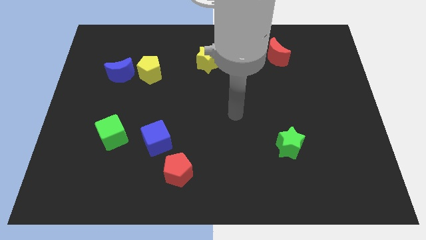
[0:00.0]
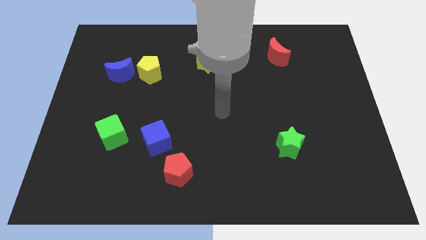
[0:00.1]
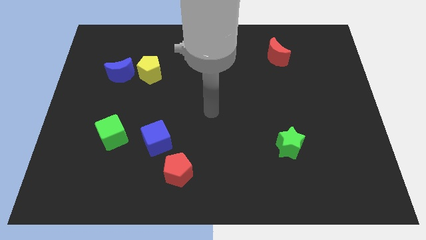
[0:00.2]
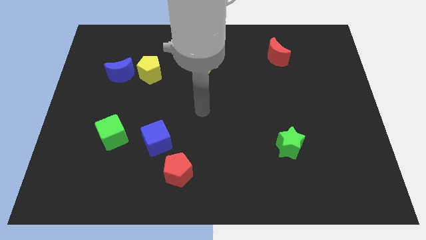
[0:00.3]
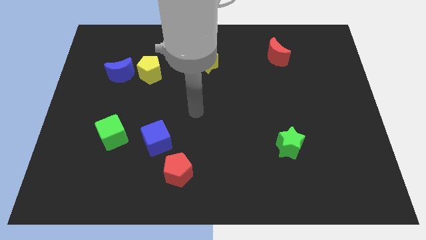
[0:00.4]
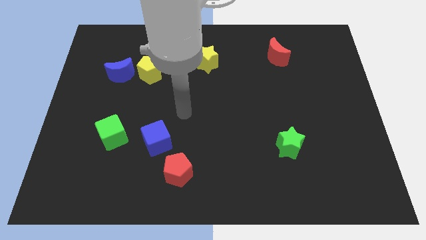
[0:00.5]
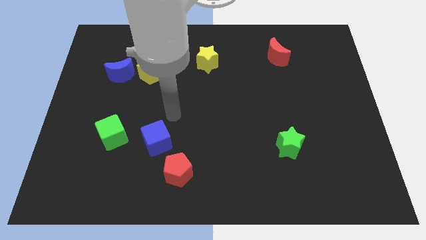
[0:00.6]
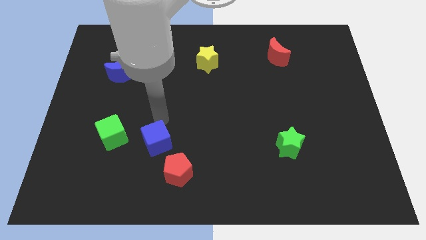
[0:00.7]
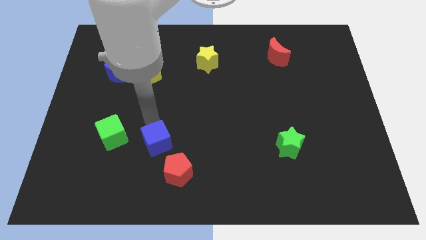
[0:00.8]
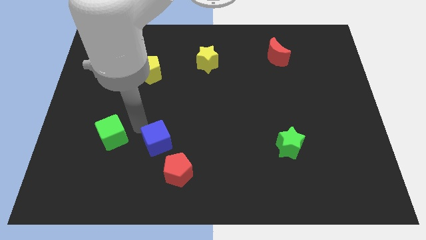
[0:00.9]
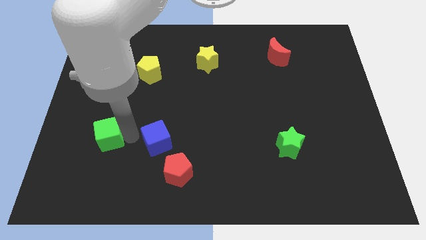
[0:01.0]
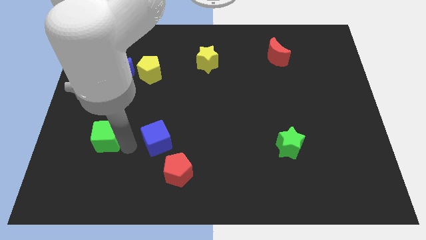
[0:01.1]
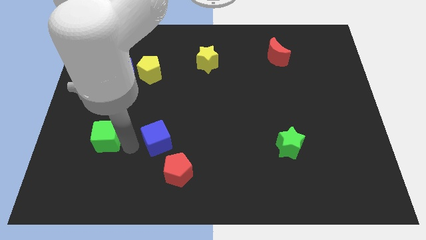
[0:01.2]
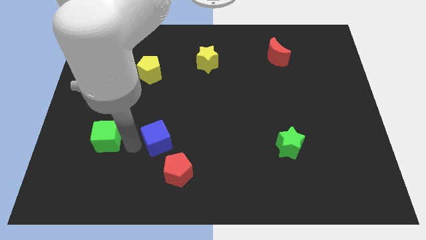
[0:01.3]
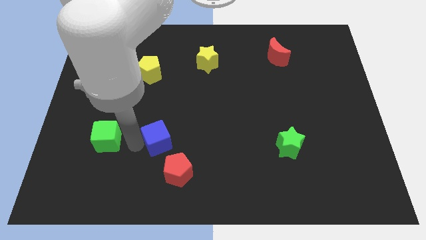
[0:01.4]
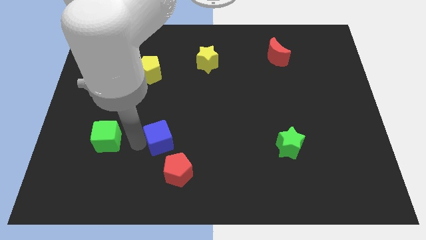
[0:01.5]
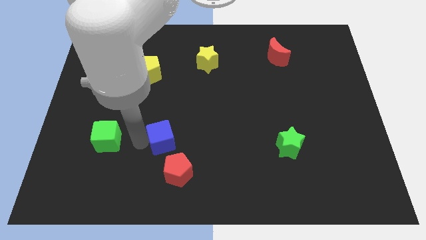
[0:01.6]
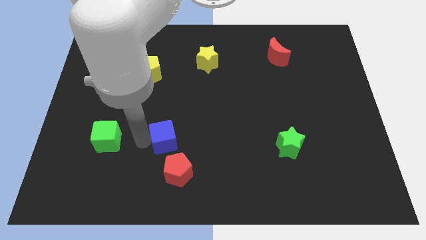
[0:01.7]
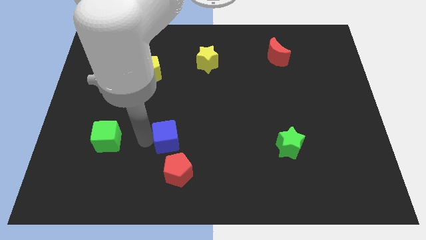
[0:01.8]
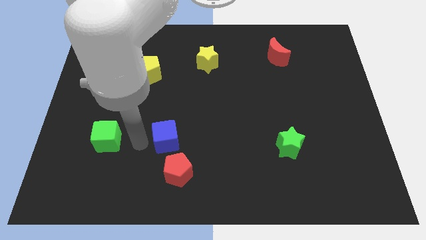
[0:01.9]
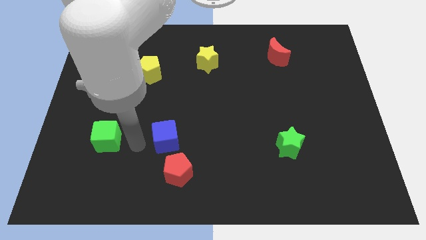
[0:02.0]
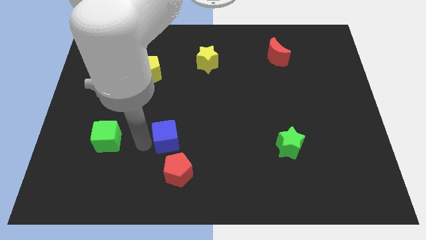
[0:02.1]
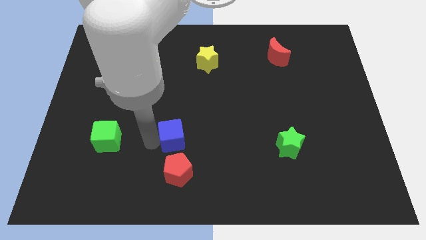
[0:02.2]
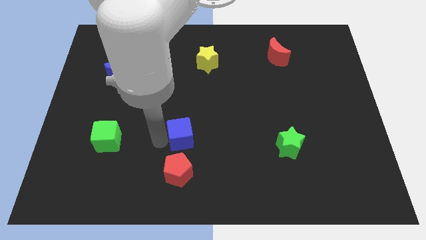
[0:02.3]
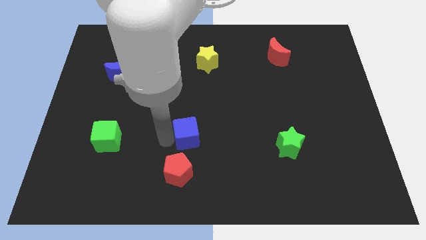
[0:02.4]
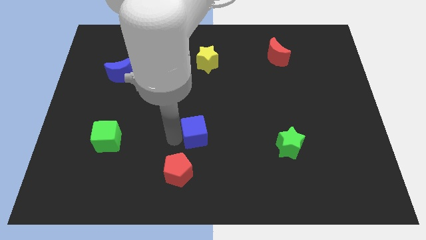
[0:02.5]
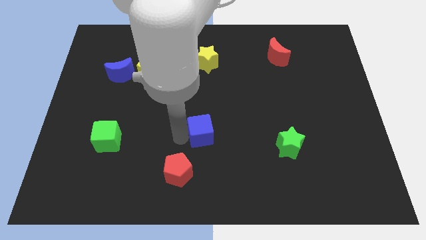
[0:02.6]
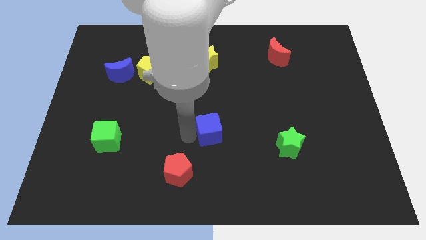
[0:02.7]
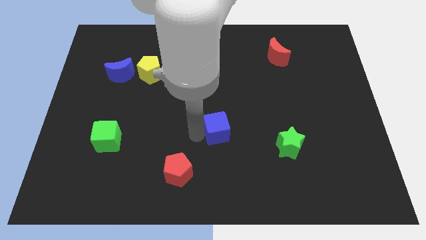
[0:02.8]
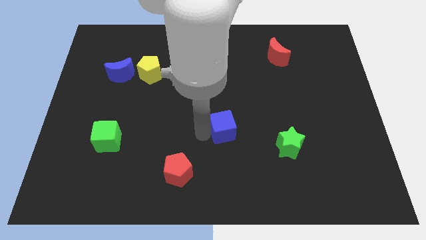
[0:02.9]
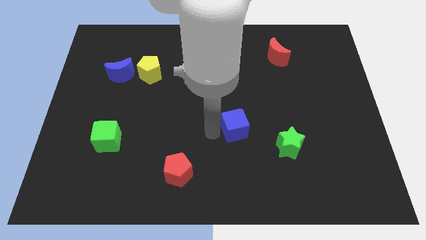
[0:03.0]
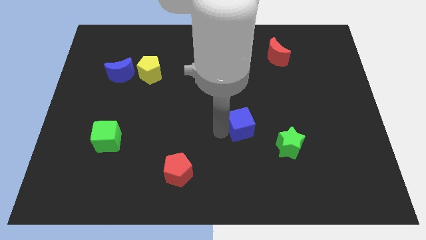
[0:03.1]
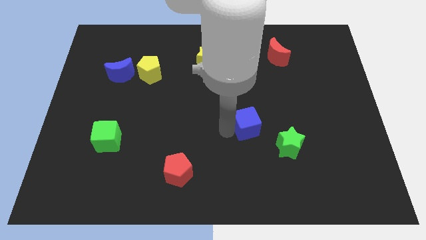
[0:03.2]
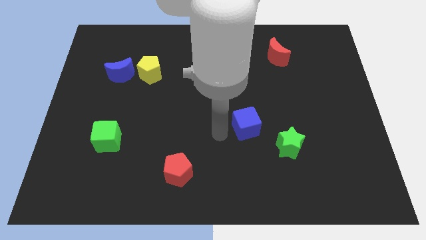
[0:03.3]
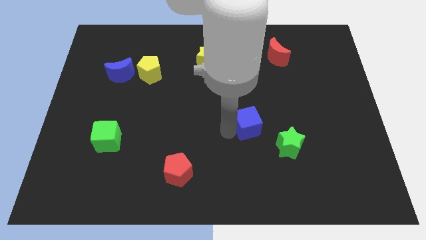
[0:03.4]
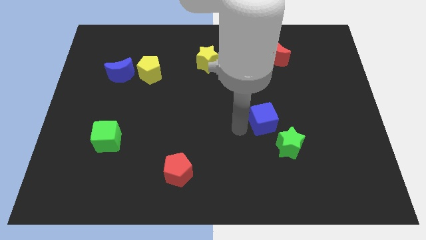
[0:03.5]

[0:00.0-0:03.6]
move the blue cube right

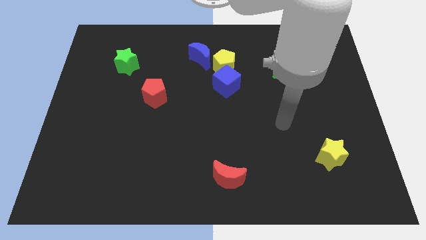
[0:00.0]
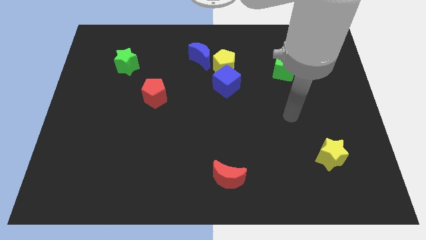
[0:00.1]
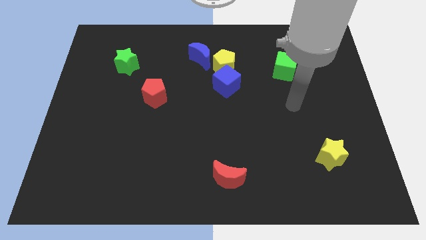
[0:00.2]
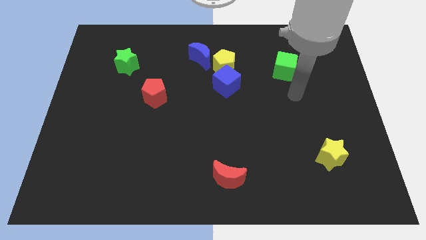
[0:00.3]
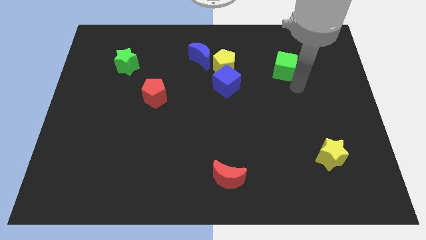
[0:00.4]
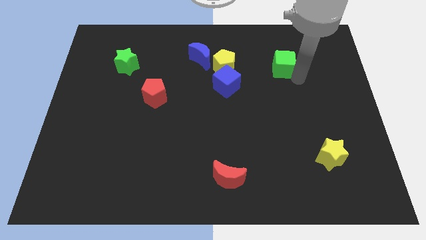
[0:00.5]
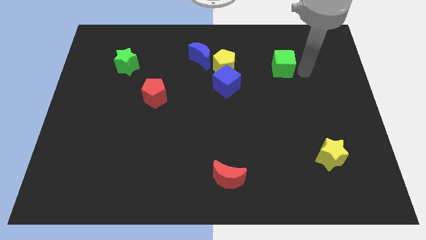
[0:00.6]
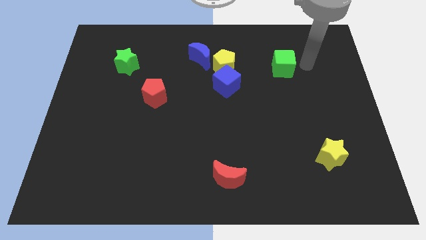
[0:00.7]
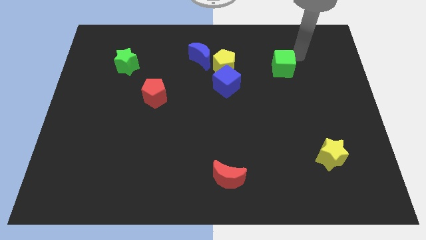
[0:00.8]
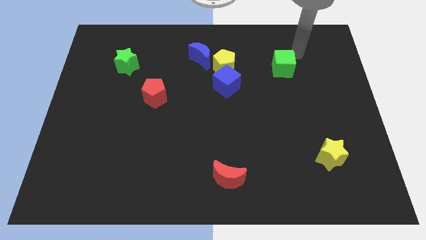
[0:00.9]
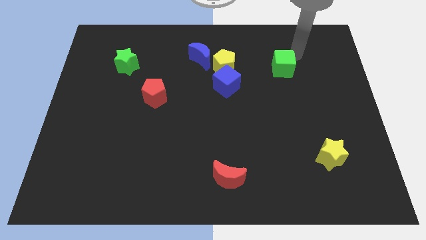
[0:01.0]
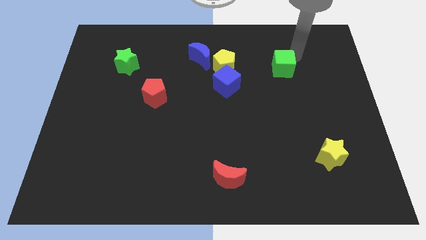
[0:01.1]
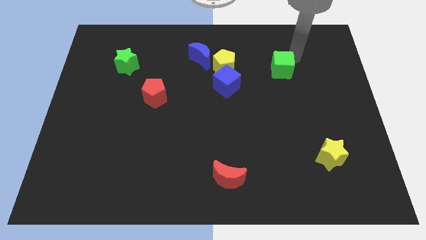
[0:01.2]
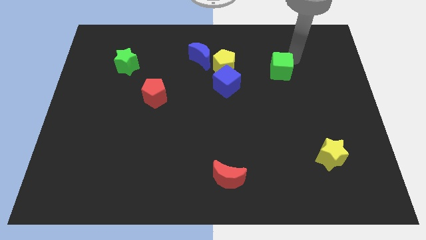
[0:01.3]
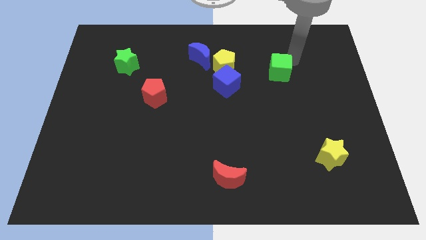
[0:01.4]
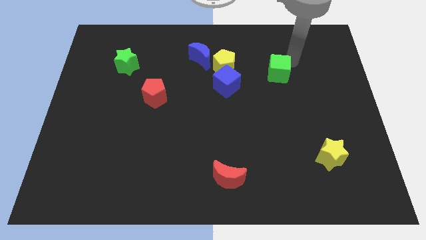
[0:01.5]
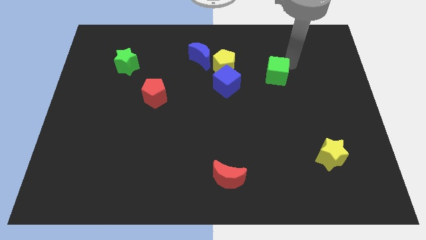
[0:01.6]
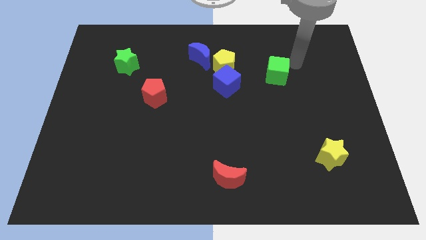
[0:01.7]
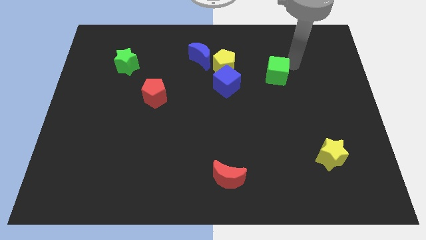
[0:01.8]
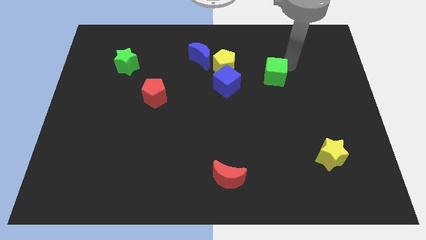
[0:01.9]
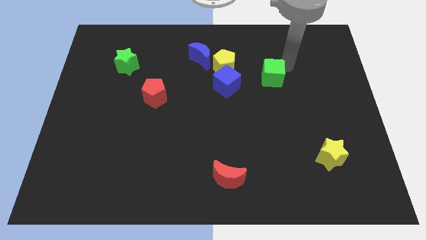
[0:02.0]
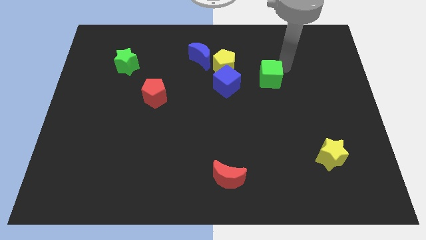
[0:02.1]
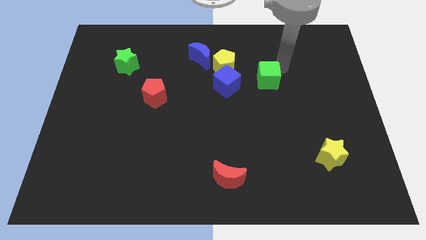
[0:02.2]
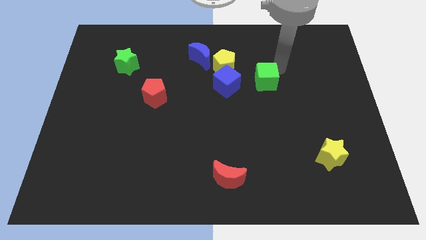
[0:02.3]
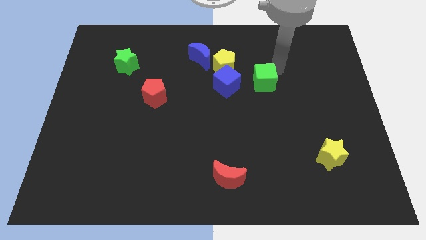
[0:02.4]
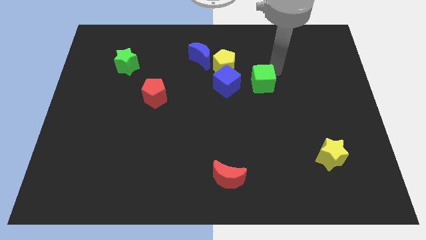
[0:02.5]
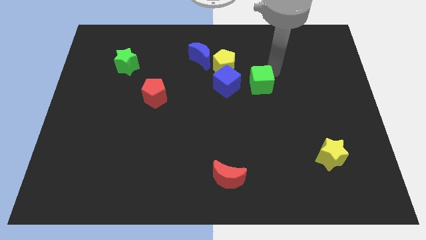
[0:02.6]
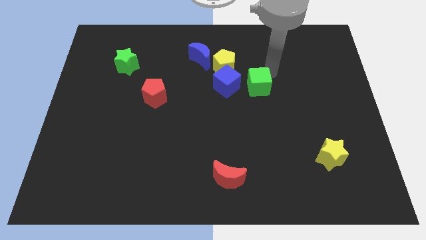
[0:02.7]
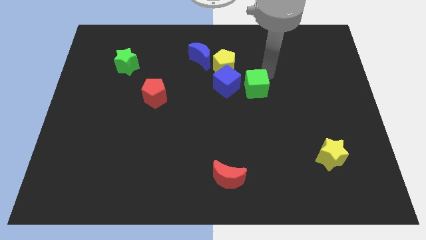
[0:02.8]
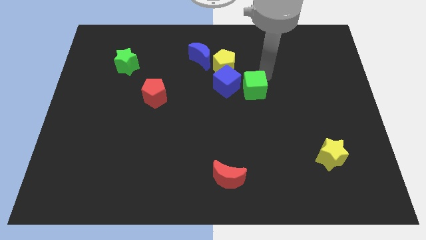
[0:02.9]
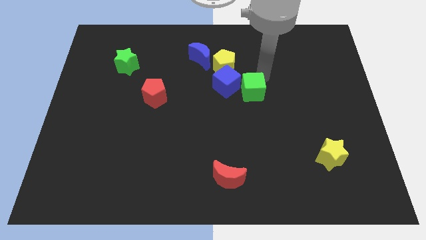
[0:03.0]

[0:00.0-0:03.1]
push the green cube left slightly

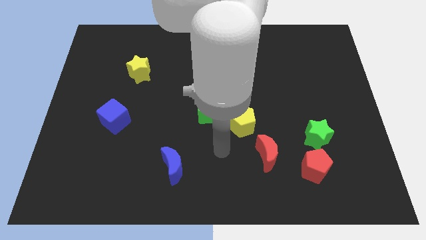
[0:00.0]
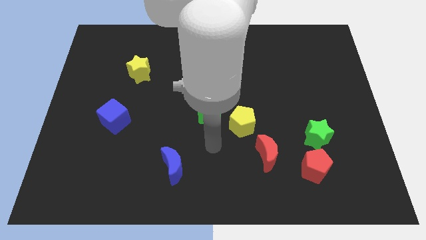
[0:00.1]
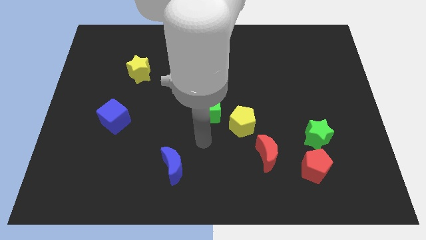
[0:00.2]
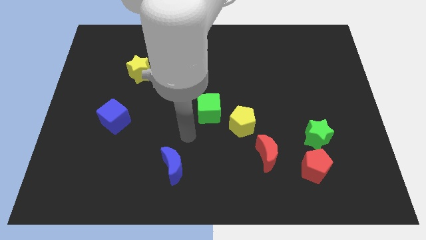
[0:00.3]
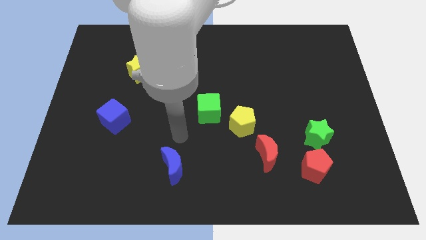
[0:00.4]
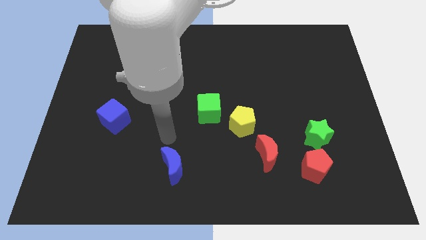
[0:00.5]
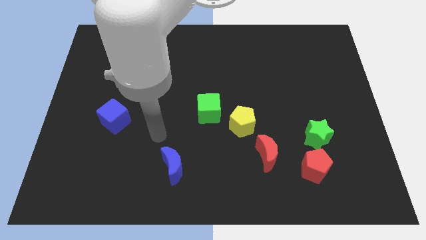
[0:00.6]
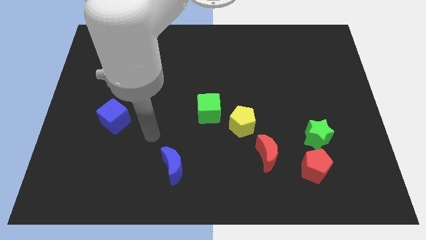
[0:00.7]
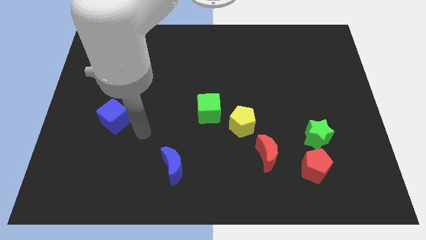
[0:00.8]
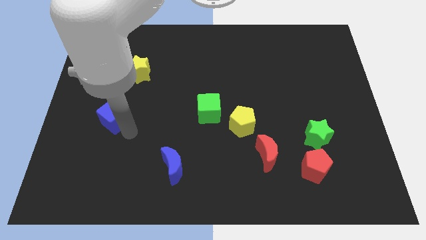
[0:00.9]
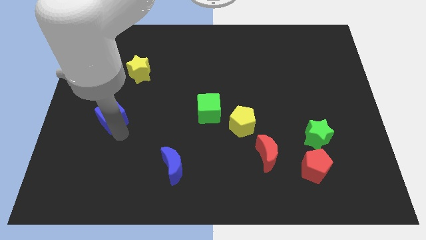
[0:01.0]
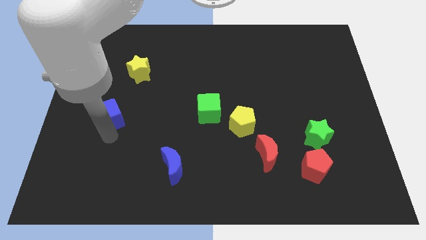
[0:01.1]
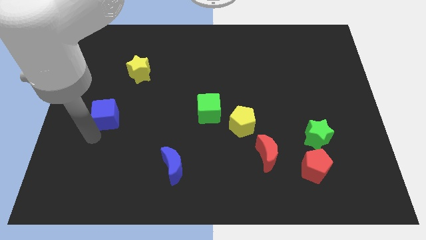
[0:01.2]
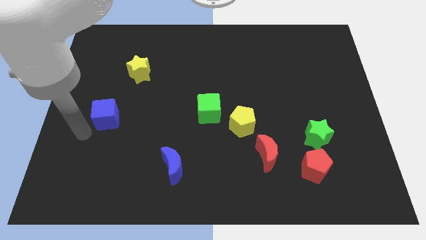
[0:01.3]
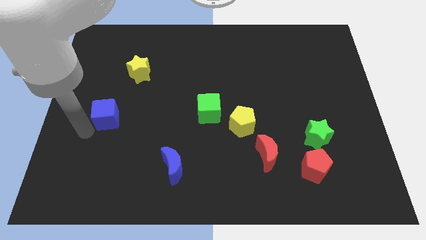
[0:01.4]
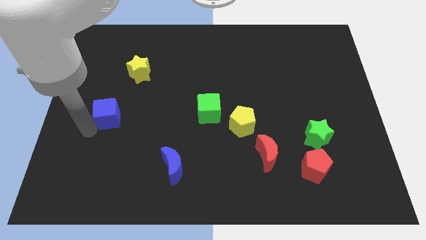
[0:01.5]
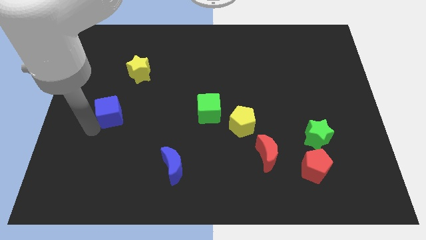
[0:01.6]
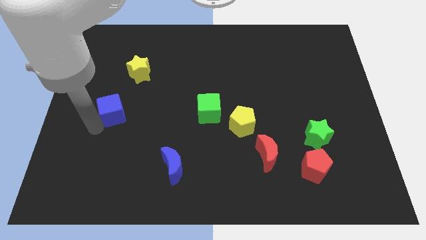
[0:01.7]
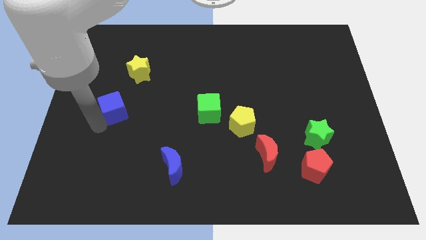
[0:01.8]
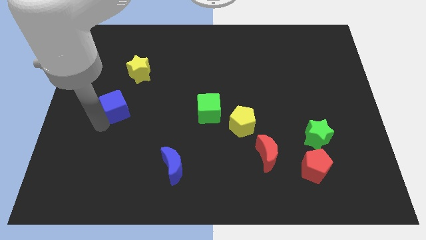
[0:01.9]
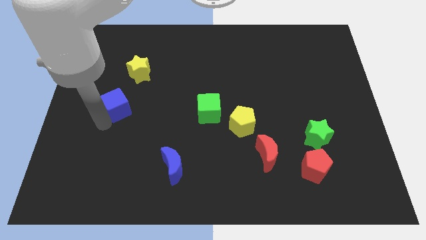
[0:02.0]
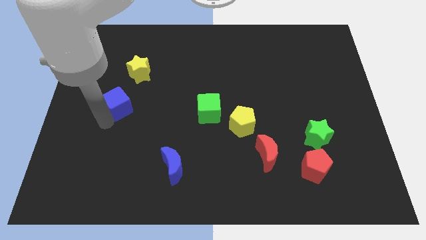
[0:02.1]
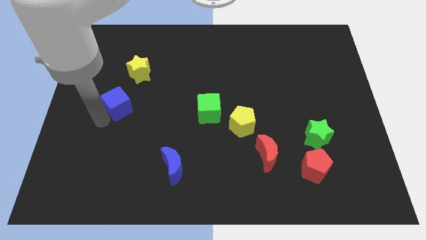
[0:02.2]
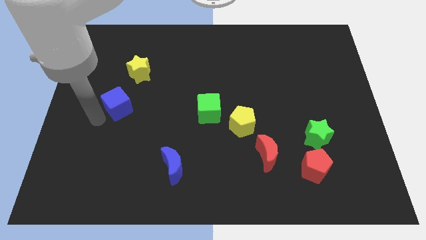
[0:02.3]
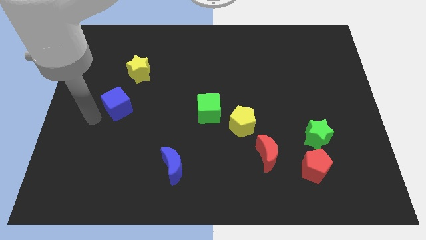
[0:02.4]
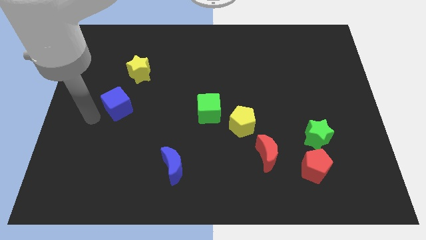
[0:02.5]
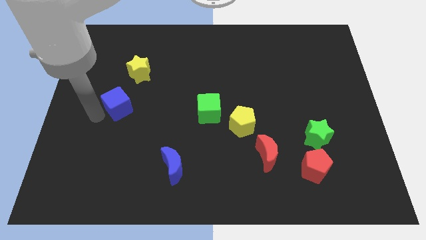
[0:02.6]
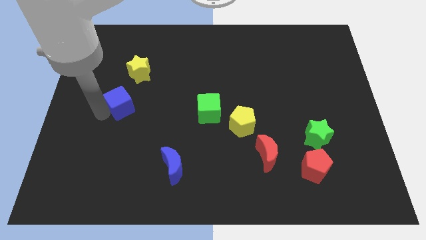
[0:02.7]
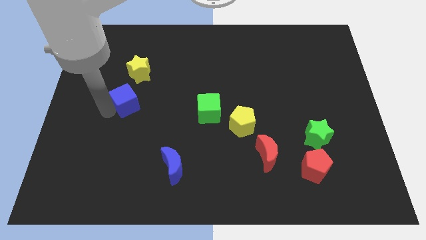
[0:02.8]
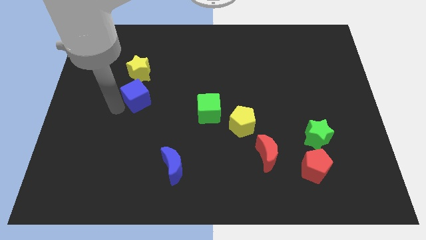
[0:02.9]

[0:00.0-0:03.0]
move the blue cube diagonally up and right slightly
